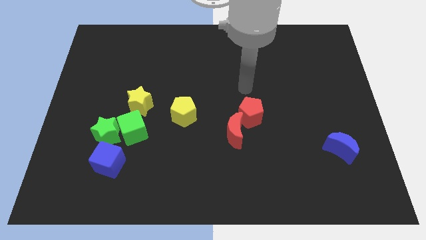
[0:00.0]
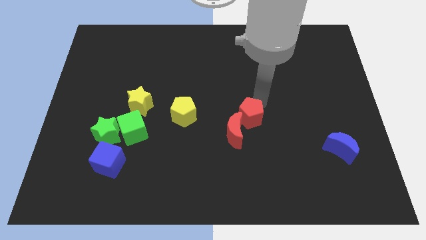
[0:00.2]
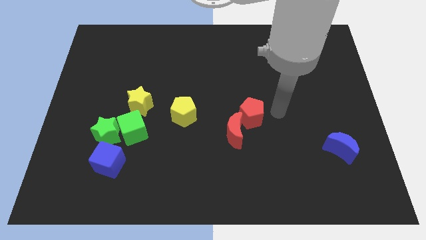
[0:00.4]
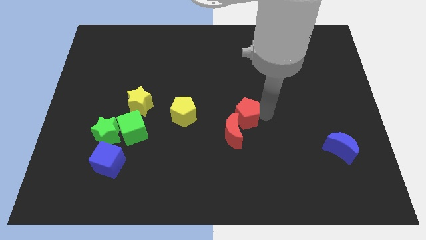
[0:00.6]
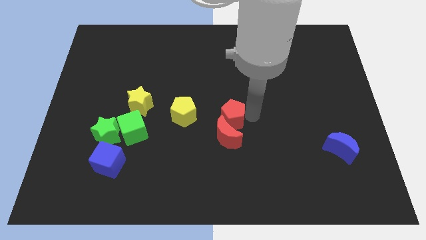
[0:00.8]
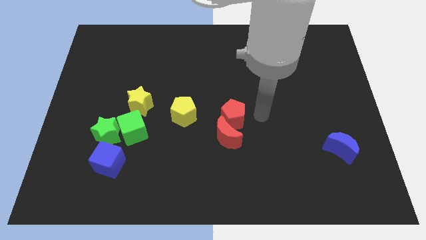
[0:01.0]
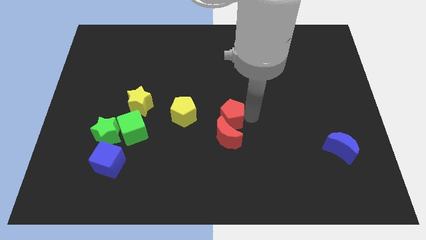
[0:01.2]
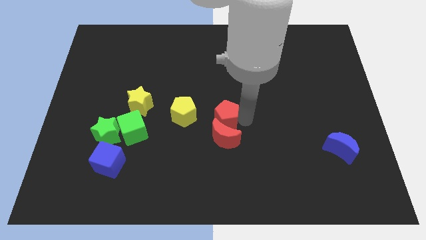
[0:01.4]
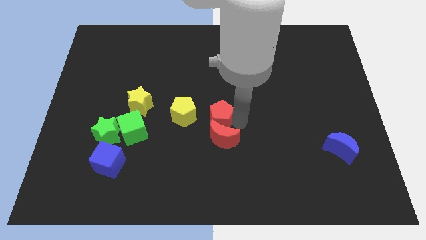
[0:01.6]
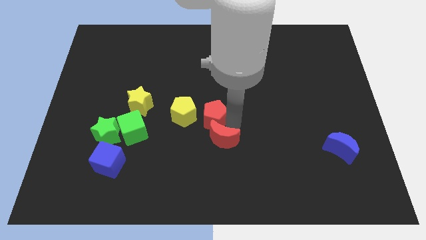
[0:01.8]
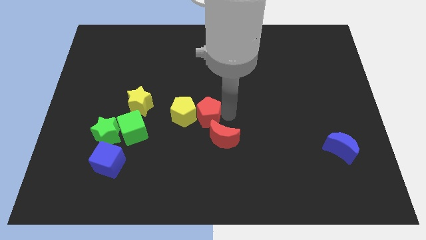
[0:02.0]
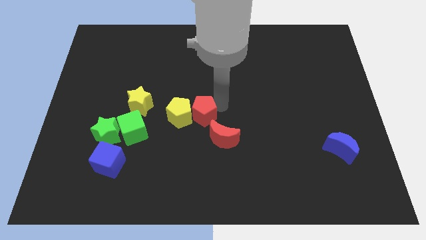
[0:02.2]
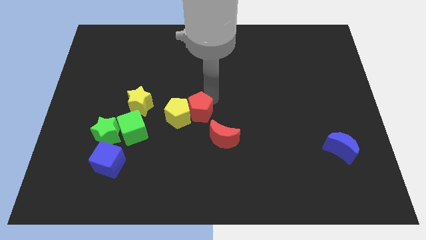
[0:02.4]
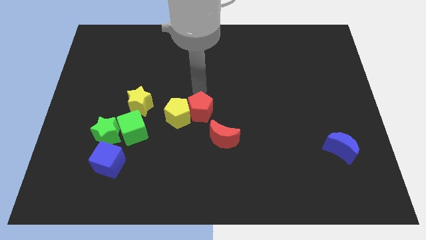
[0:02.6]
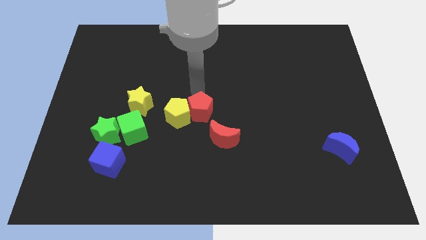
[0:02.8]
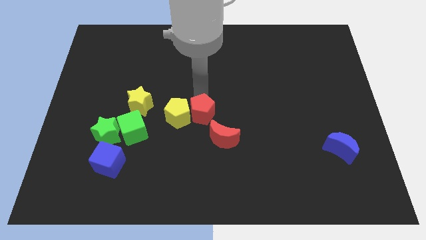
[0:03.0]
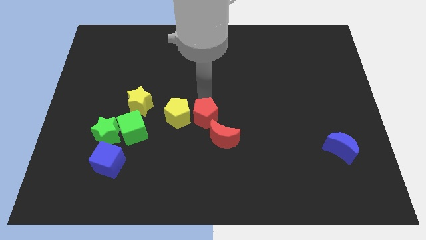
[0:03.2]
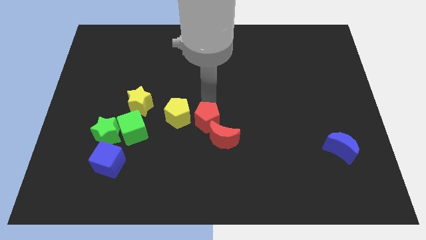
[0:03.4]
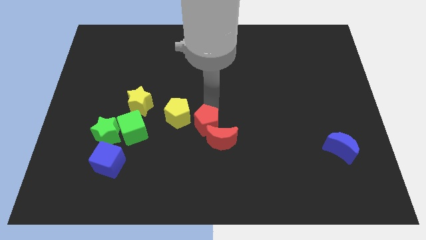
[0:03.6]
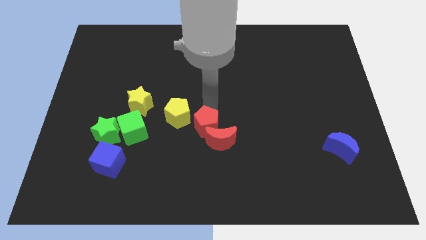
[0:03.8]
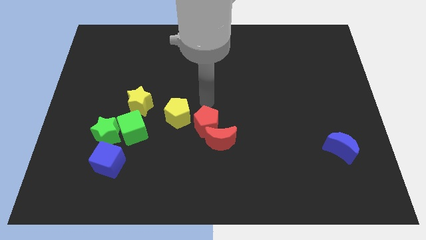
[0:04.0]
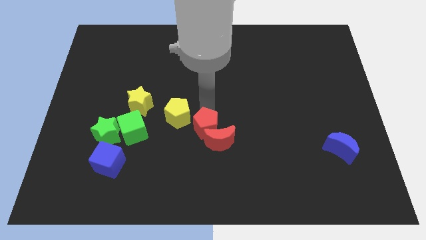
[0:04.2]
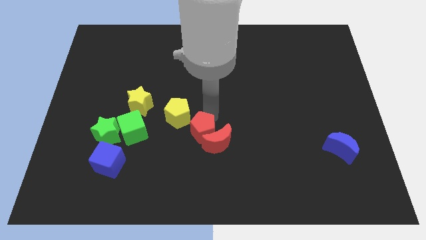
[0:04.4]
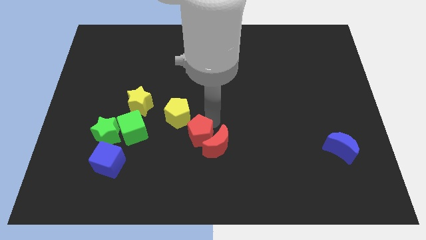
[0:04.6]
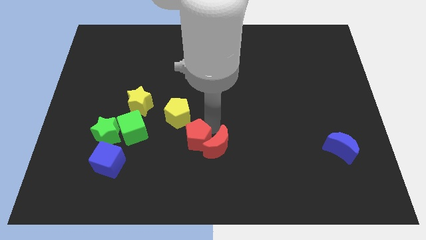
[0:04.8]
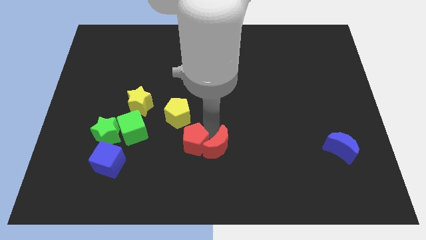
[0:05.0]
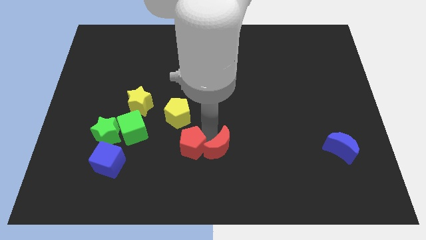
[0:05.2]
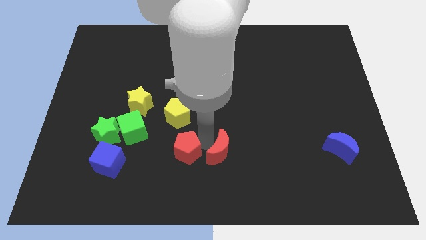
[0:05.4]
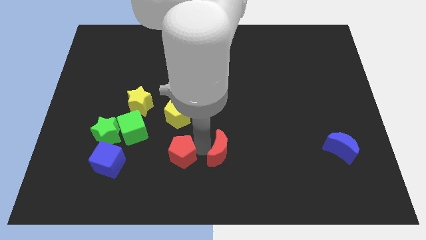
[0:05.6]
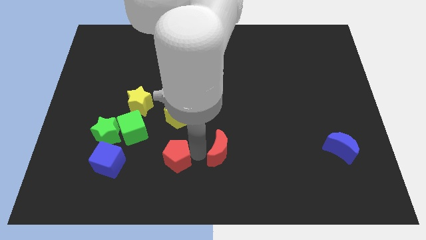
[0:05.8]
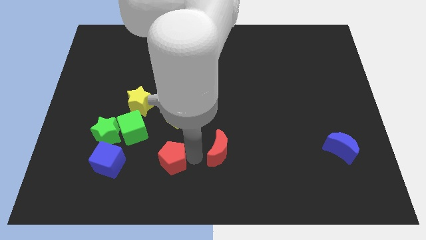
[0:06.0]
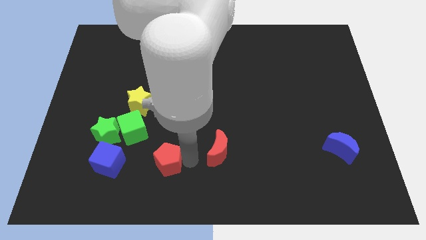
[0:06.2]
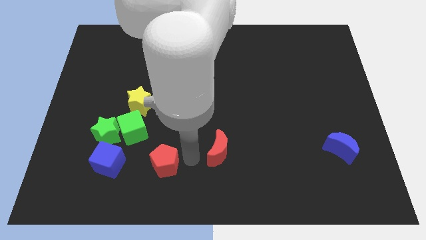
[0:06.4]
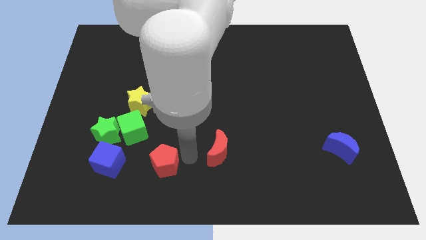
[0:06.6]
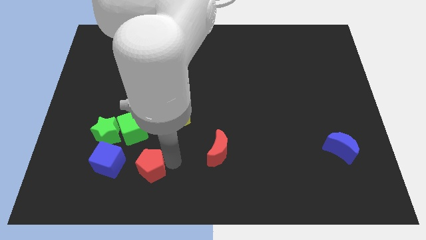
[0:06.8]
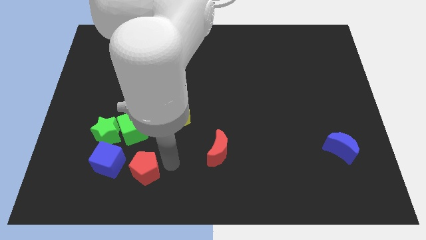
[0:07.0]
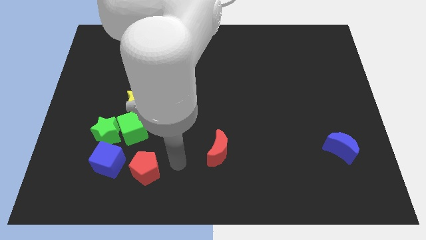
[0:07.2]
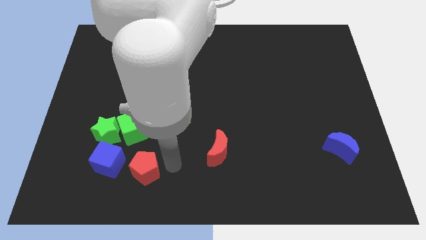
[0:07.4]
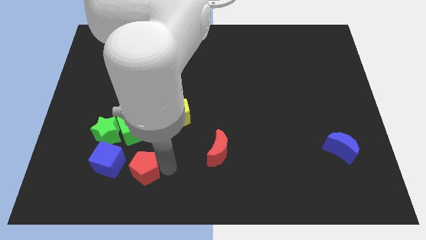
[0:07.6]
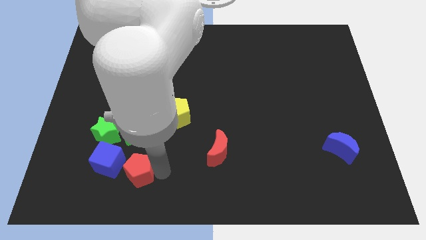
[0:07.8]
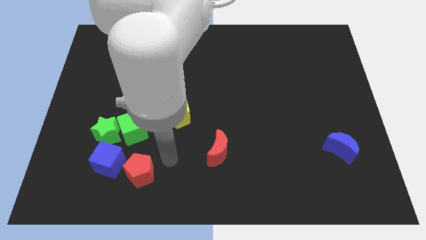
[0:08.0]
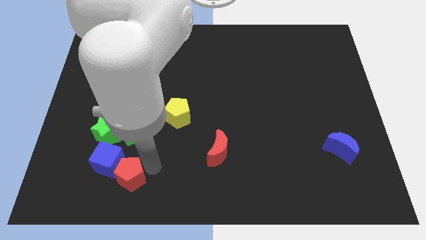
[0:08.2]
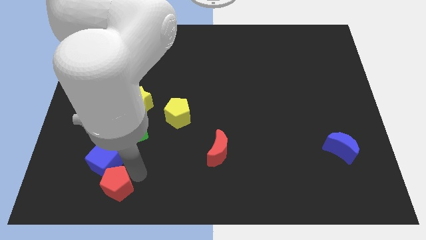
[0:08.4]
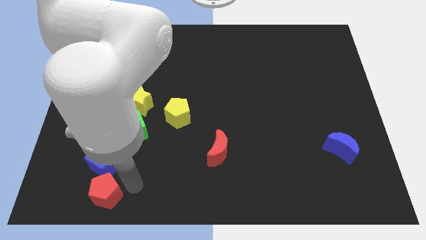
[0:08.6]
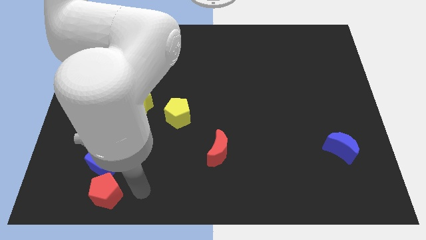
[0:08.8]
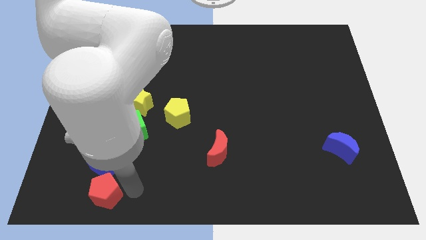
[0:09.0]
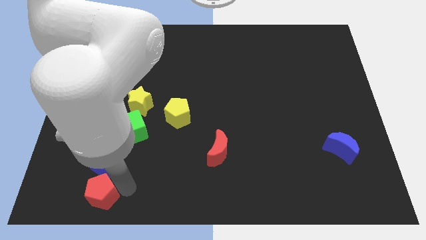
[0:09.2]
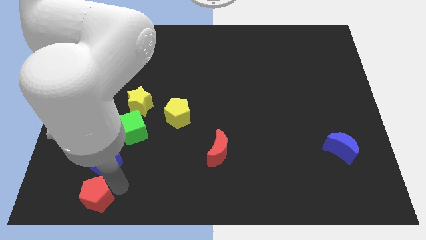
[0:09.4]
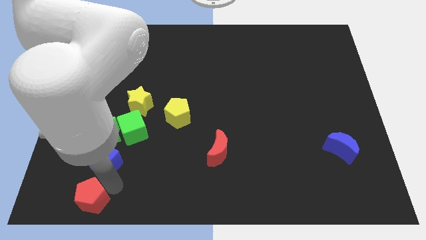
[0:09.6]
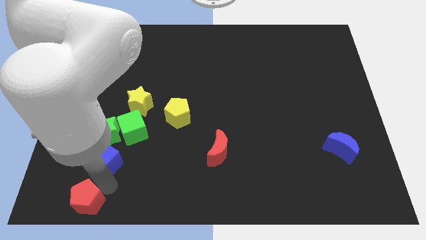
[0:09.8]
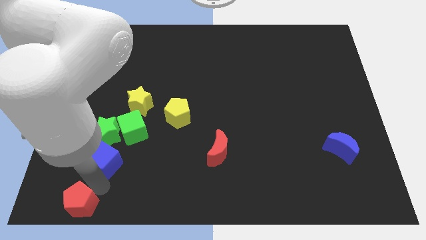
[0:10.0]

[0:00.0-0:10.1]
push the red pentagon to the bottom left corner

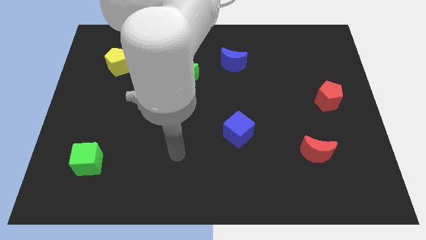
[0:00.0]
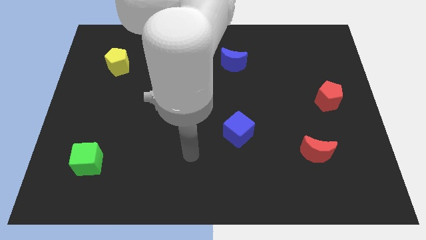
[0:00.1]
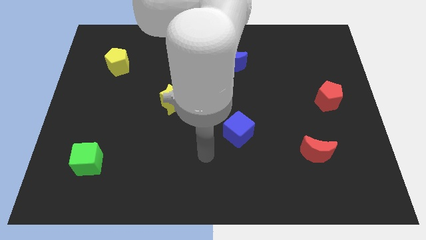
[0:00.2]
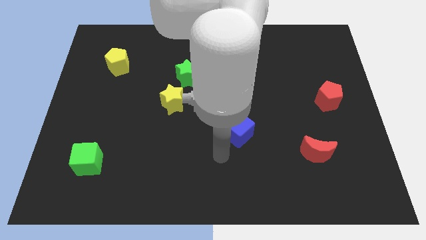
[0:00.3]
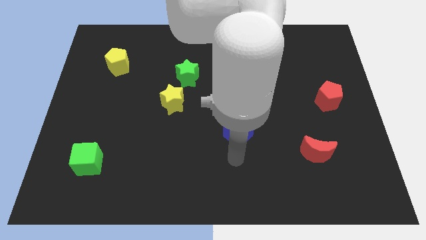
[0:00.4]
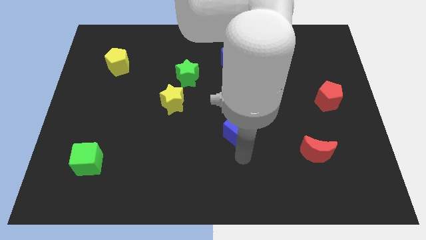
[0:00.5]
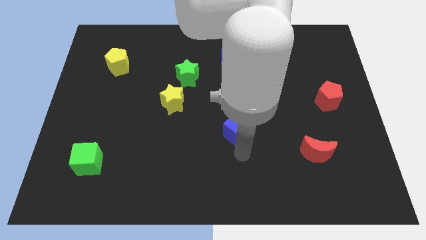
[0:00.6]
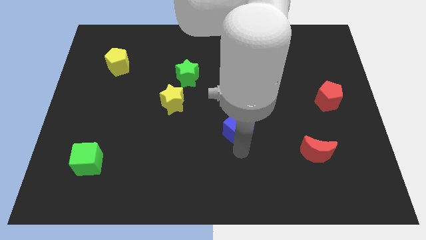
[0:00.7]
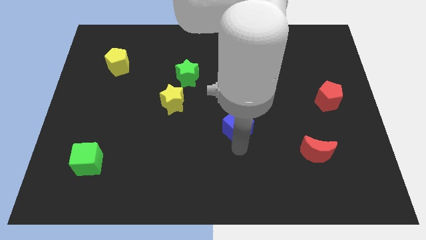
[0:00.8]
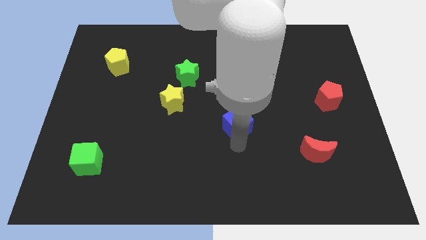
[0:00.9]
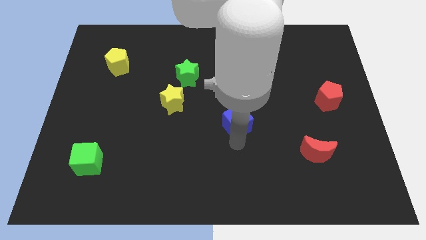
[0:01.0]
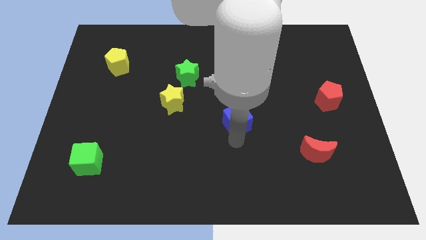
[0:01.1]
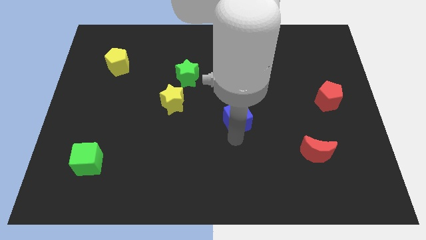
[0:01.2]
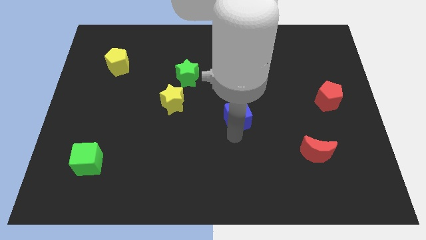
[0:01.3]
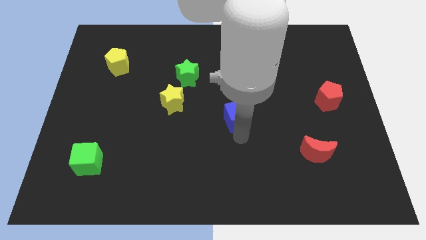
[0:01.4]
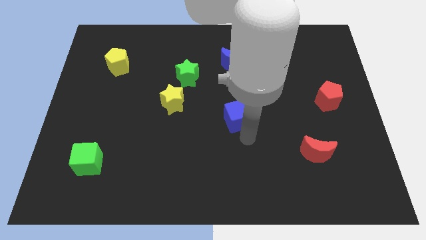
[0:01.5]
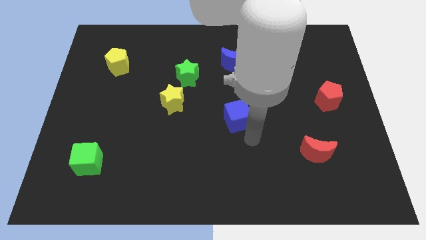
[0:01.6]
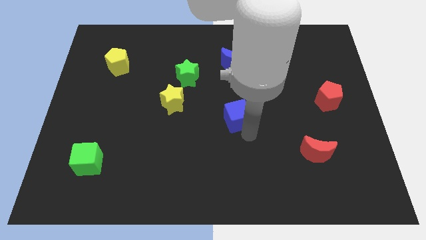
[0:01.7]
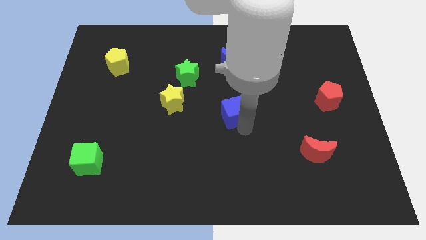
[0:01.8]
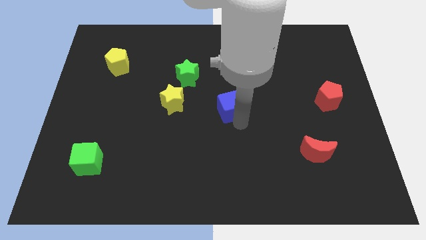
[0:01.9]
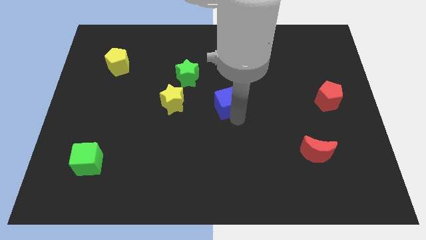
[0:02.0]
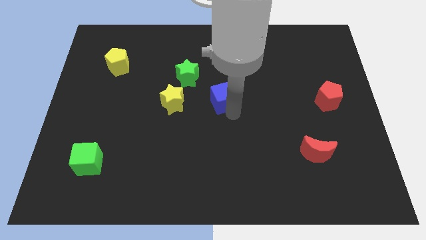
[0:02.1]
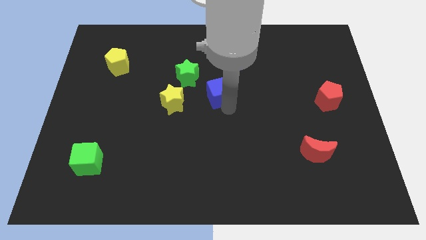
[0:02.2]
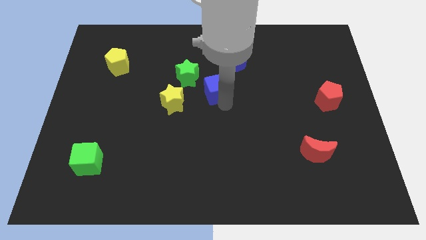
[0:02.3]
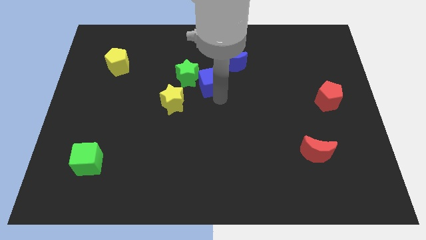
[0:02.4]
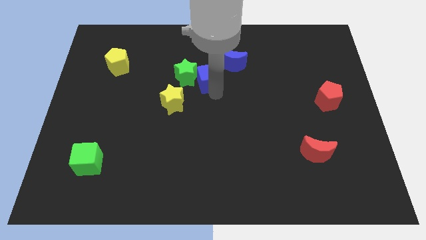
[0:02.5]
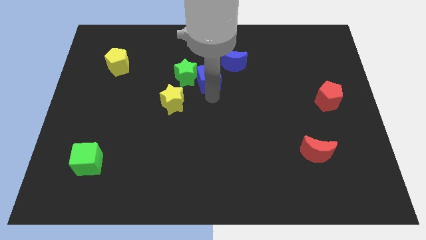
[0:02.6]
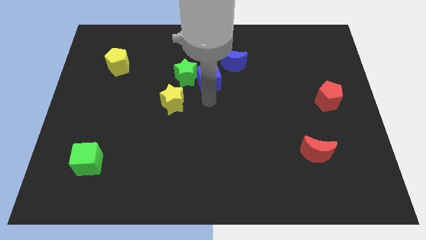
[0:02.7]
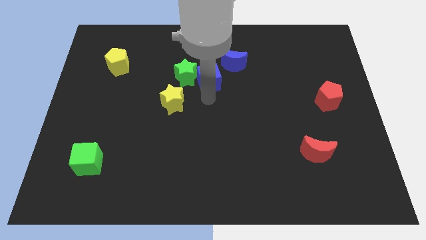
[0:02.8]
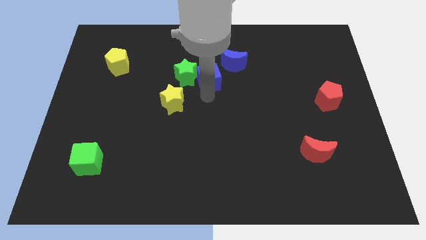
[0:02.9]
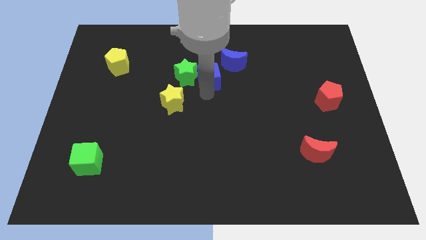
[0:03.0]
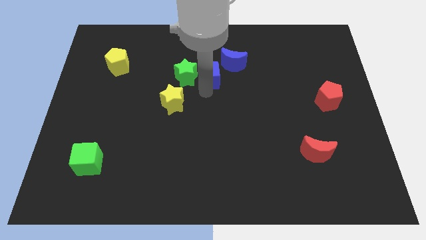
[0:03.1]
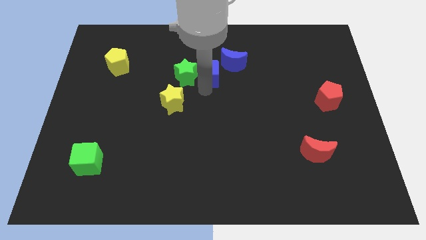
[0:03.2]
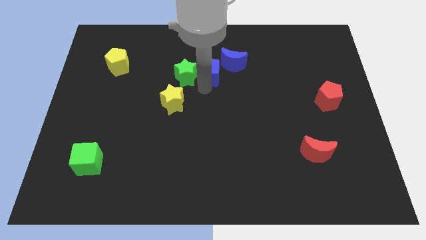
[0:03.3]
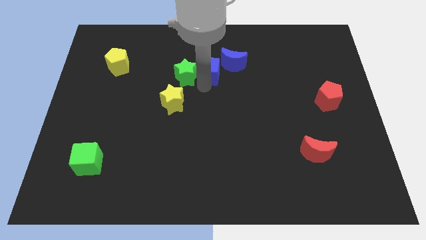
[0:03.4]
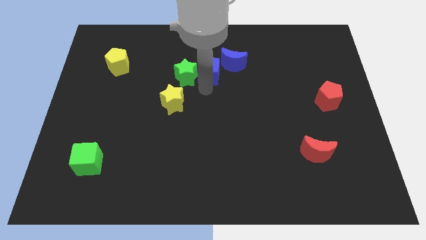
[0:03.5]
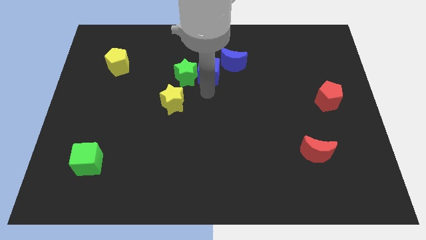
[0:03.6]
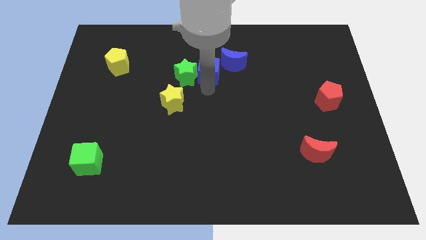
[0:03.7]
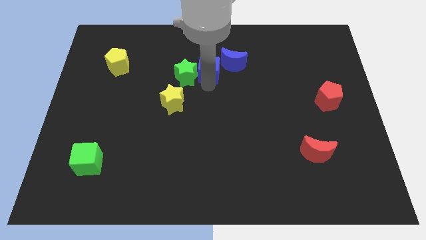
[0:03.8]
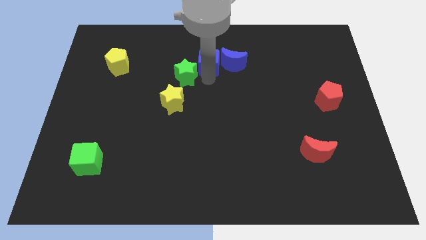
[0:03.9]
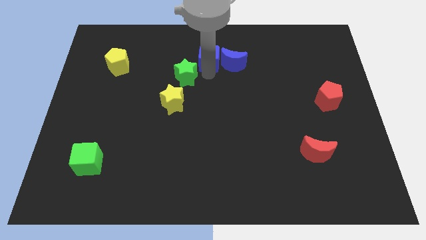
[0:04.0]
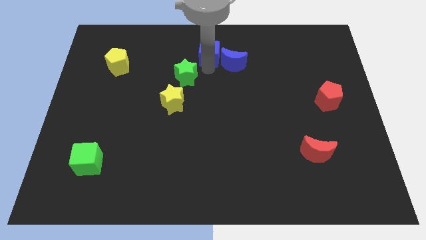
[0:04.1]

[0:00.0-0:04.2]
push the blue cube to the top
